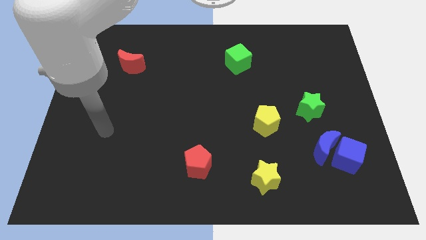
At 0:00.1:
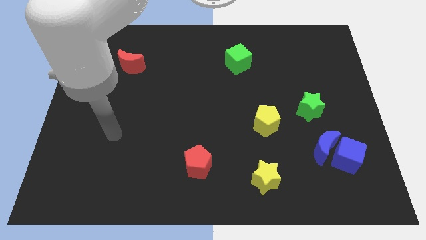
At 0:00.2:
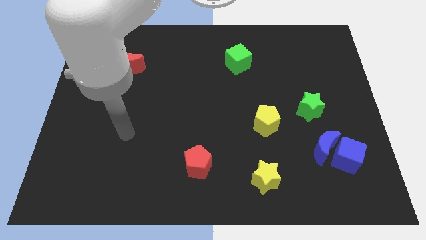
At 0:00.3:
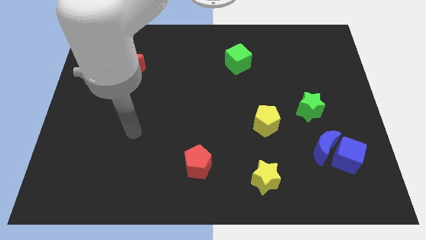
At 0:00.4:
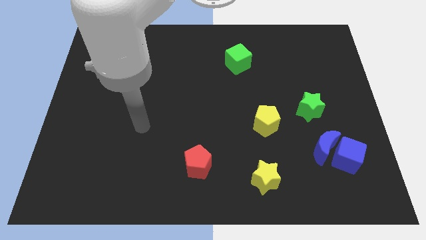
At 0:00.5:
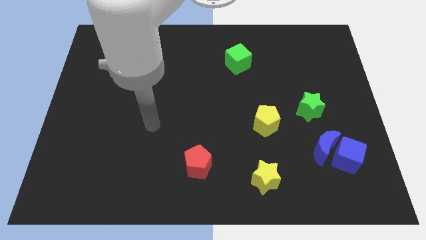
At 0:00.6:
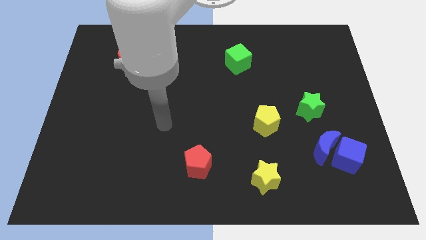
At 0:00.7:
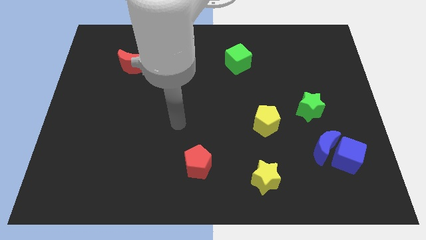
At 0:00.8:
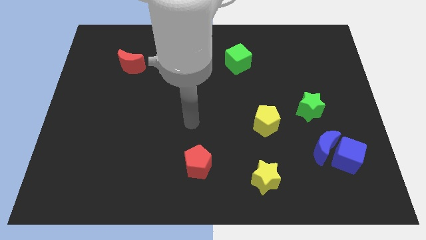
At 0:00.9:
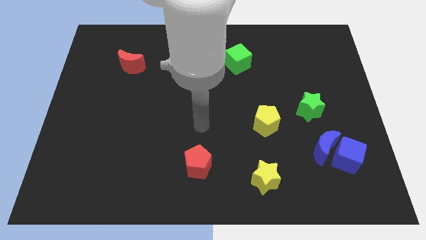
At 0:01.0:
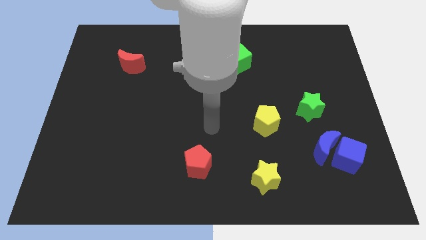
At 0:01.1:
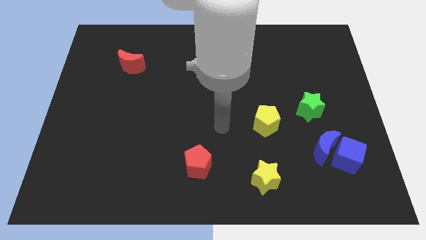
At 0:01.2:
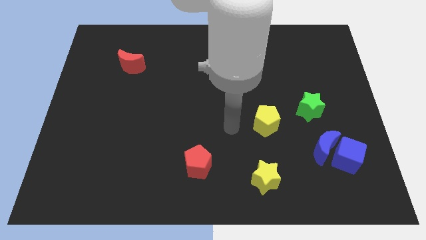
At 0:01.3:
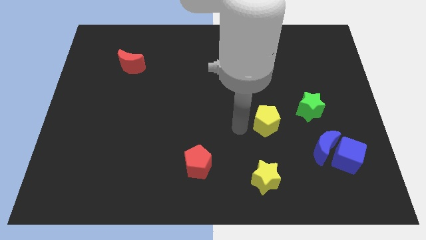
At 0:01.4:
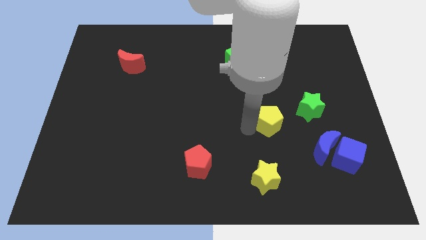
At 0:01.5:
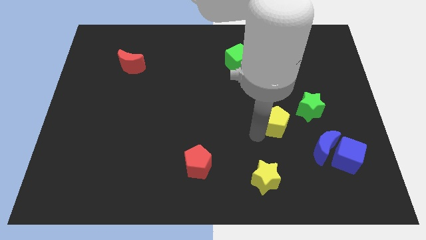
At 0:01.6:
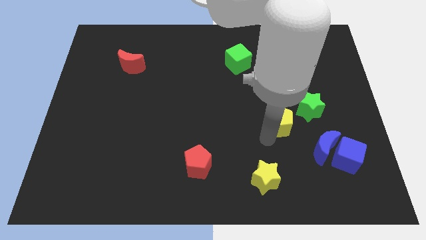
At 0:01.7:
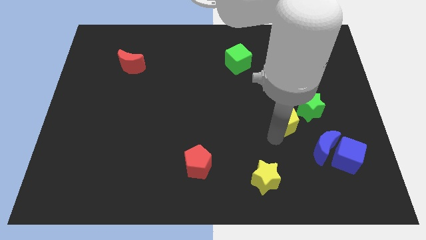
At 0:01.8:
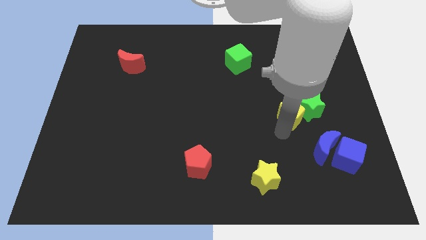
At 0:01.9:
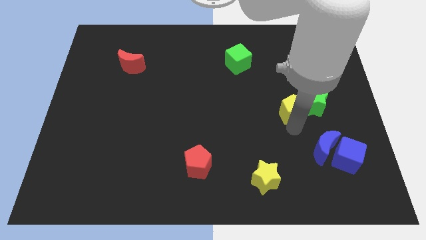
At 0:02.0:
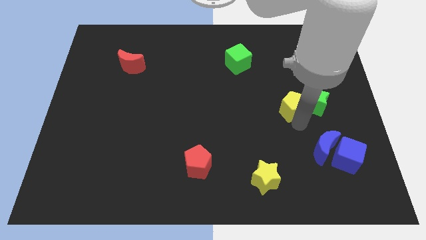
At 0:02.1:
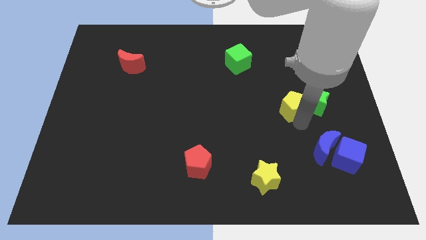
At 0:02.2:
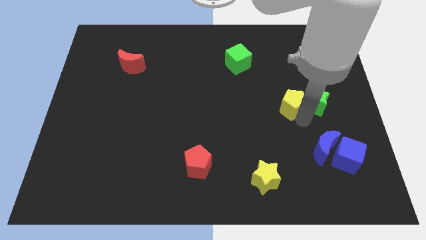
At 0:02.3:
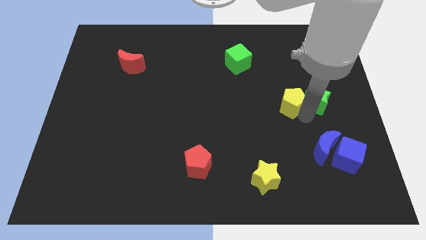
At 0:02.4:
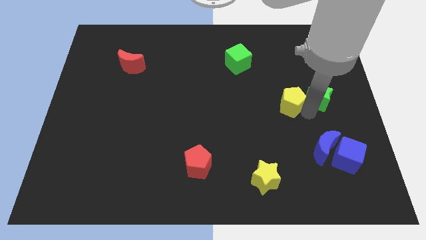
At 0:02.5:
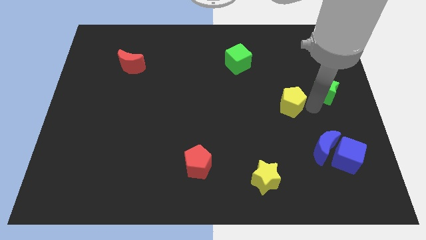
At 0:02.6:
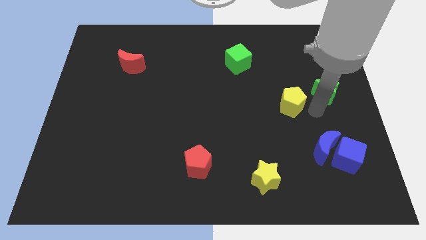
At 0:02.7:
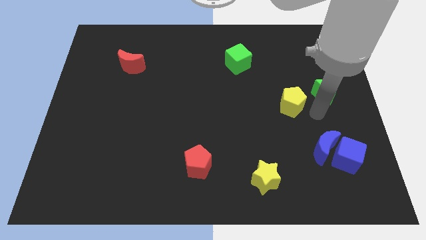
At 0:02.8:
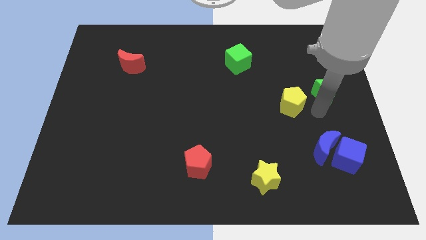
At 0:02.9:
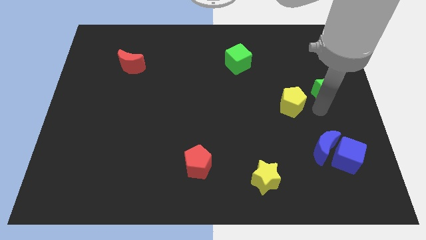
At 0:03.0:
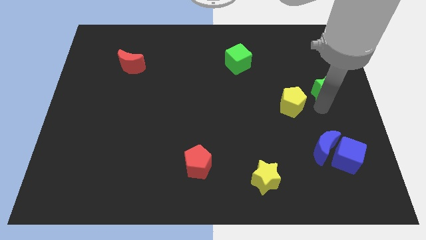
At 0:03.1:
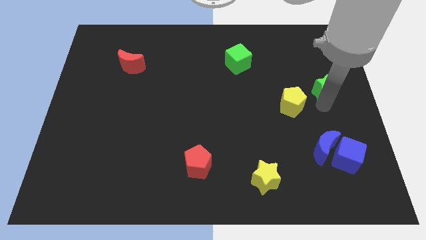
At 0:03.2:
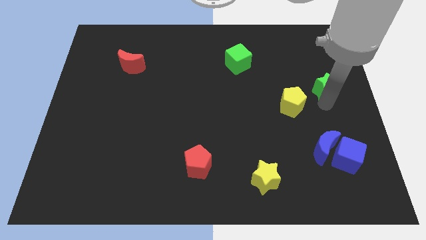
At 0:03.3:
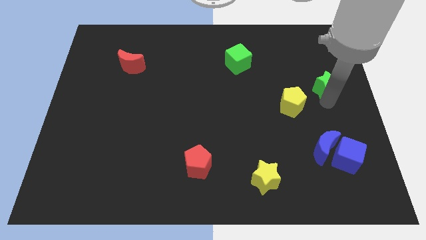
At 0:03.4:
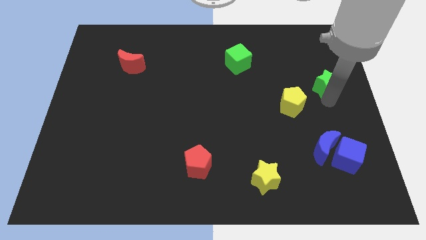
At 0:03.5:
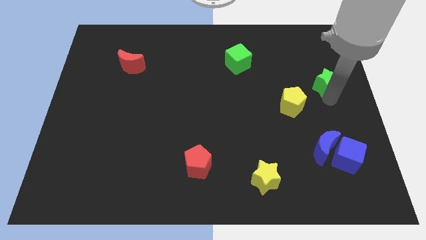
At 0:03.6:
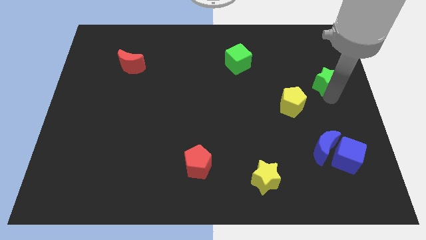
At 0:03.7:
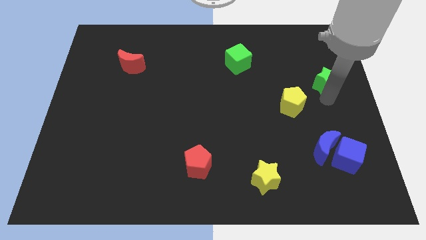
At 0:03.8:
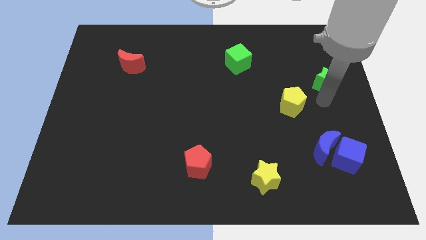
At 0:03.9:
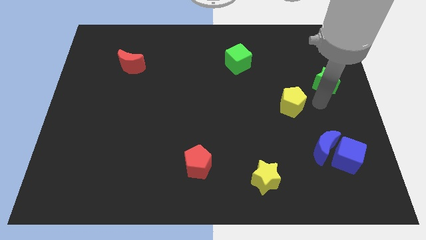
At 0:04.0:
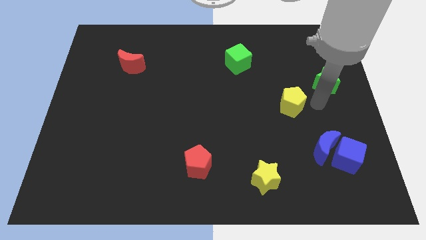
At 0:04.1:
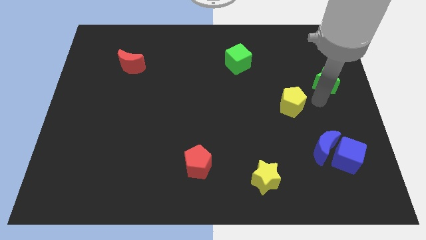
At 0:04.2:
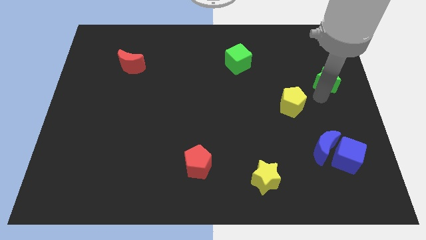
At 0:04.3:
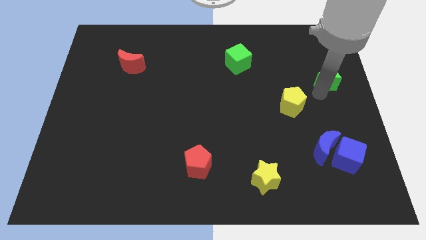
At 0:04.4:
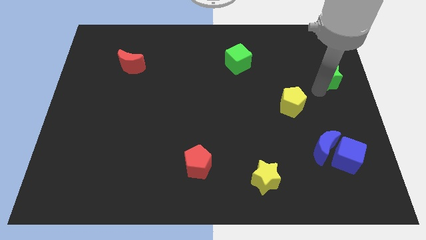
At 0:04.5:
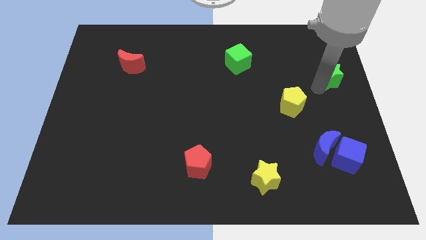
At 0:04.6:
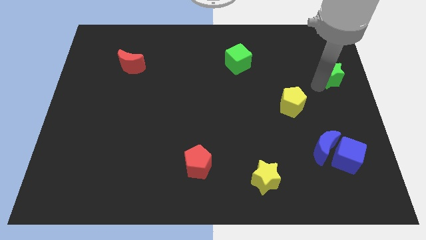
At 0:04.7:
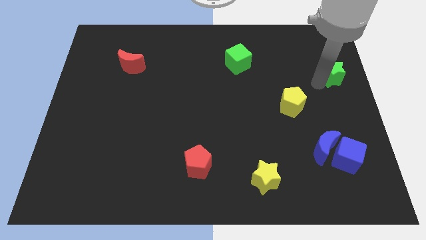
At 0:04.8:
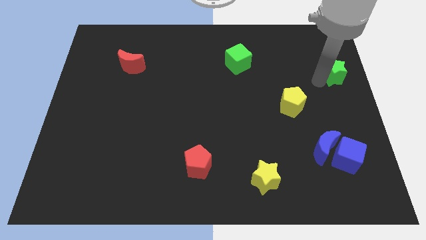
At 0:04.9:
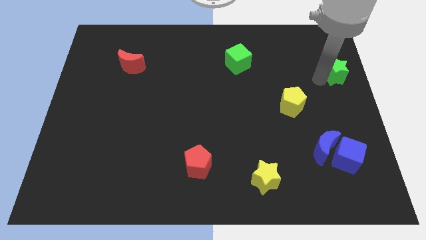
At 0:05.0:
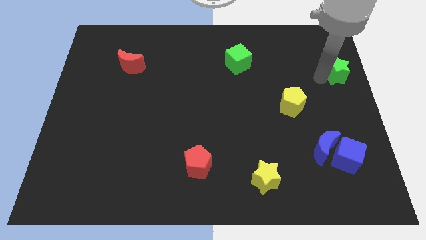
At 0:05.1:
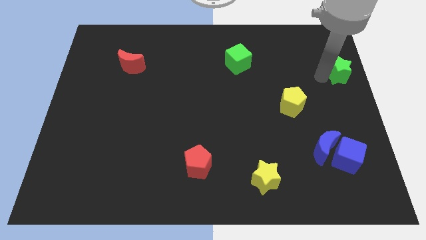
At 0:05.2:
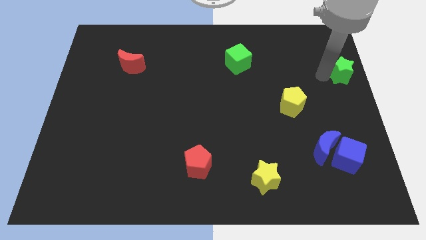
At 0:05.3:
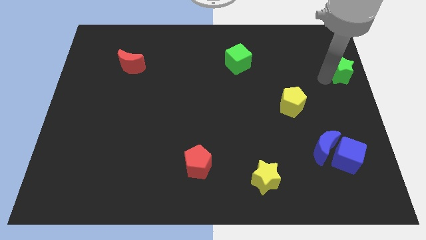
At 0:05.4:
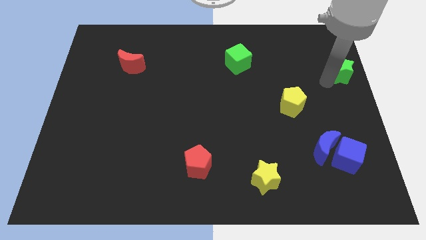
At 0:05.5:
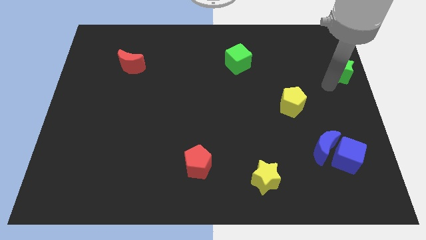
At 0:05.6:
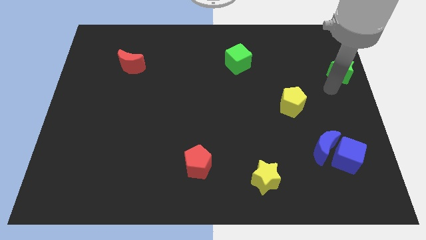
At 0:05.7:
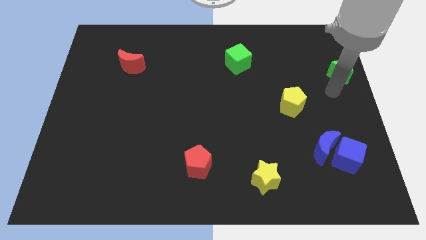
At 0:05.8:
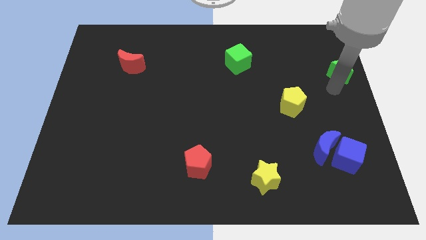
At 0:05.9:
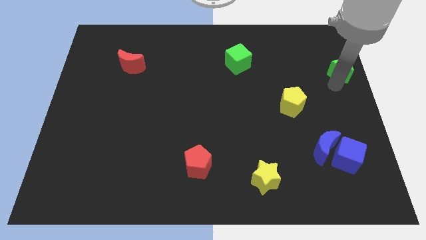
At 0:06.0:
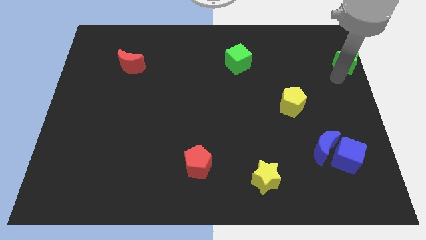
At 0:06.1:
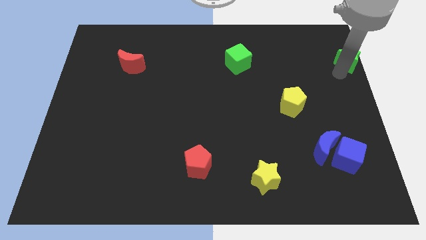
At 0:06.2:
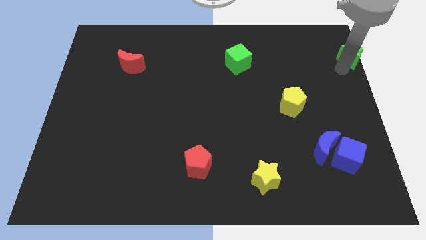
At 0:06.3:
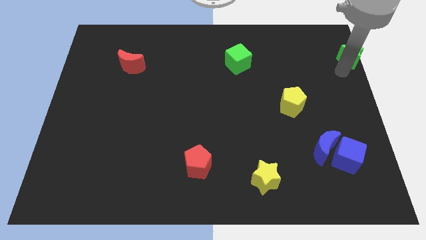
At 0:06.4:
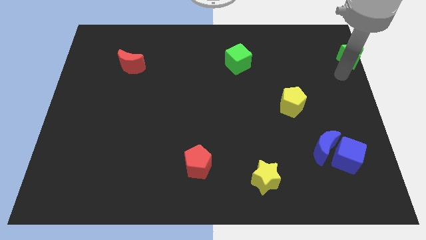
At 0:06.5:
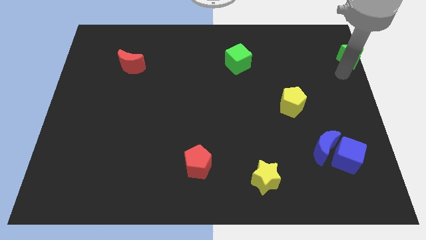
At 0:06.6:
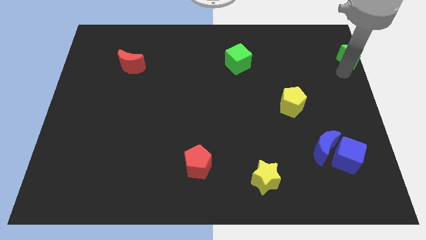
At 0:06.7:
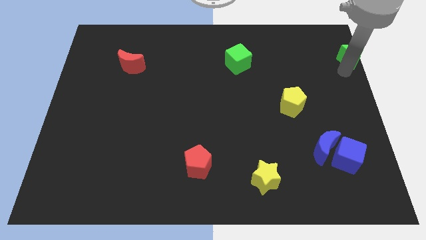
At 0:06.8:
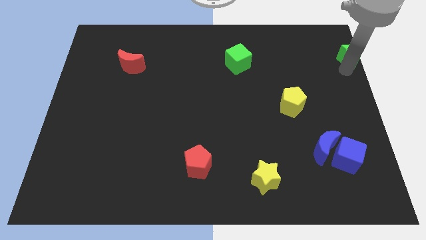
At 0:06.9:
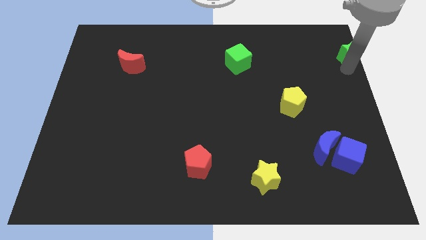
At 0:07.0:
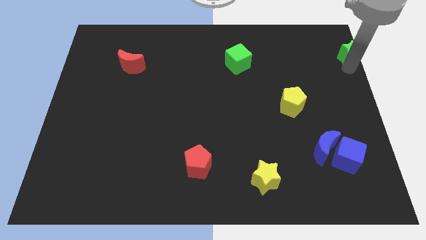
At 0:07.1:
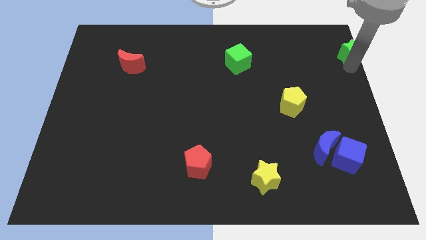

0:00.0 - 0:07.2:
push the green star to the upper right corner

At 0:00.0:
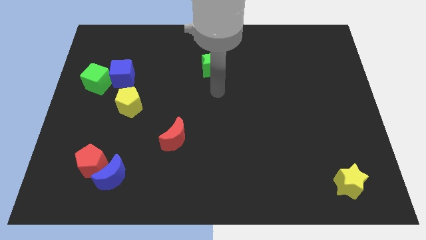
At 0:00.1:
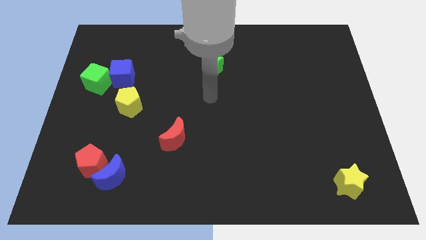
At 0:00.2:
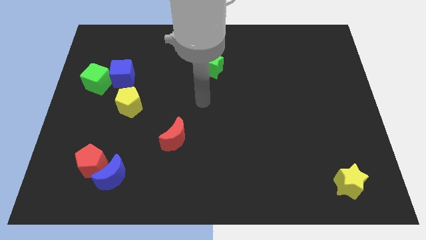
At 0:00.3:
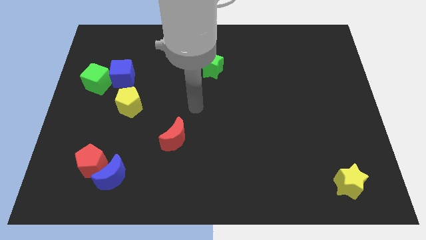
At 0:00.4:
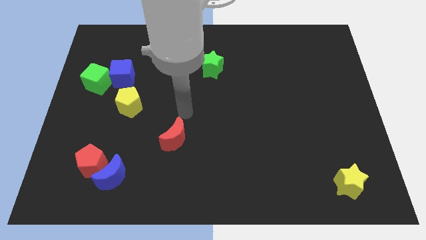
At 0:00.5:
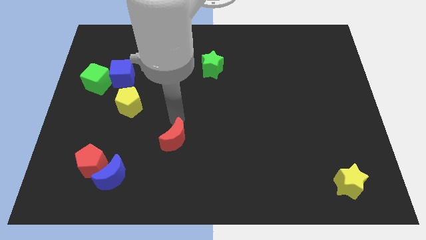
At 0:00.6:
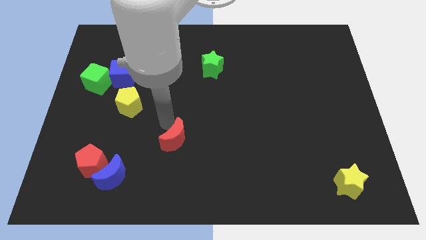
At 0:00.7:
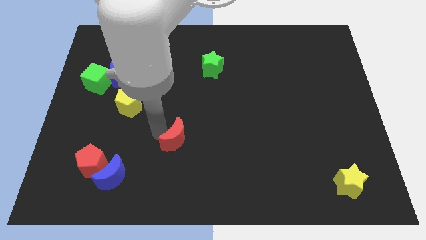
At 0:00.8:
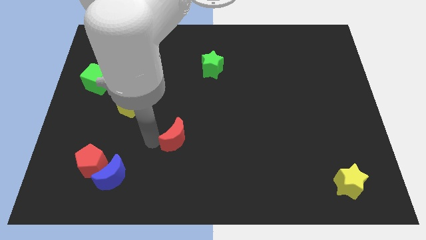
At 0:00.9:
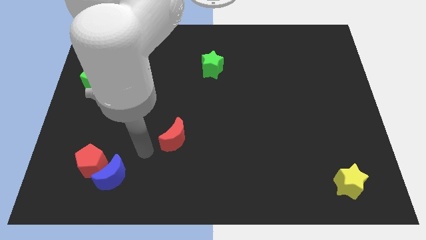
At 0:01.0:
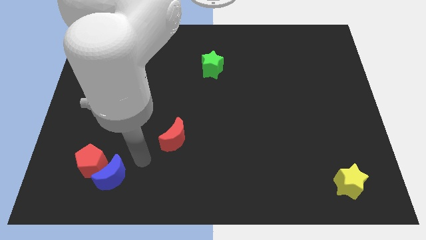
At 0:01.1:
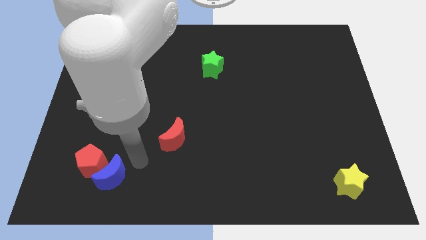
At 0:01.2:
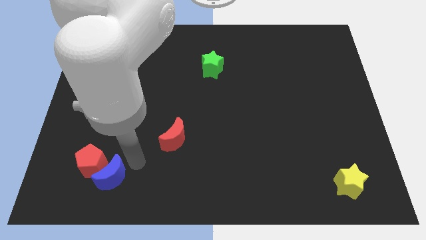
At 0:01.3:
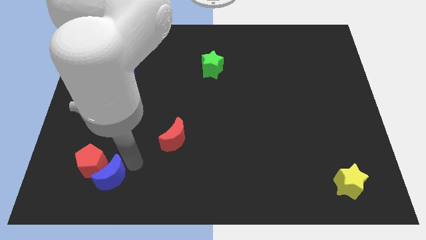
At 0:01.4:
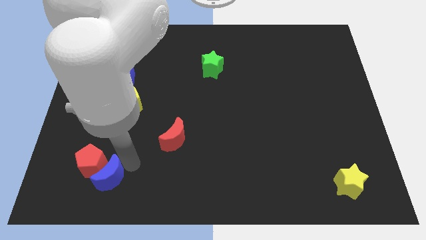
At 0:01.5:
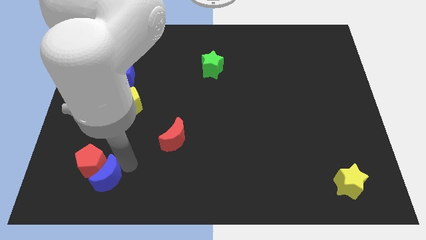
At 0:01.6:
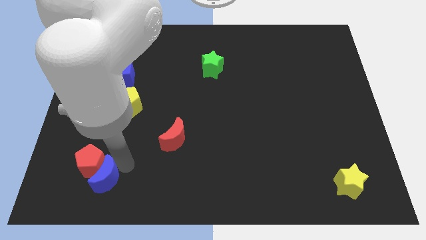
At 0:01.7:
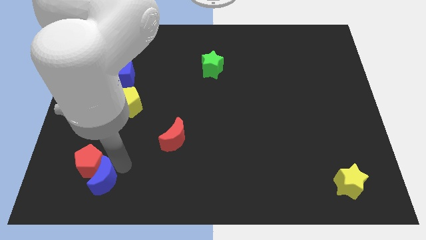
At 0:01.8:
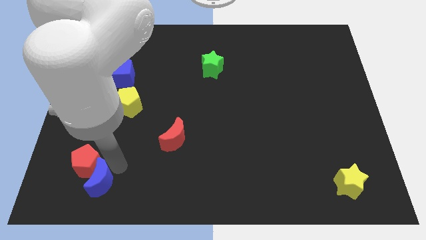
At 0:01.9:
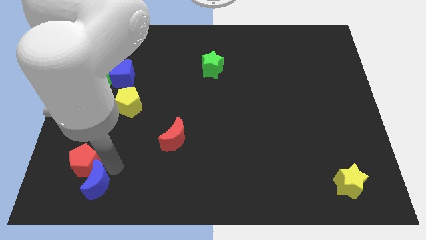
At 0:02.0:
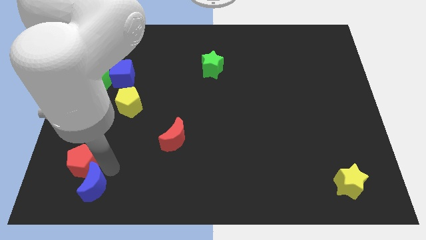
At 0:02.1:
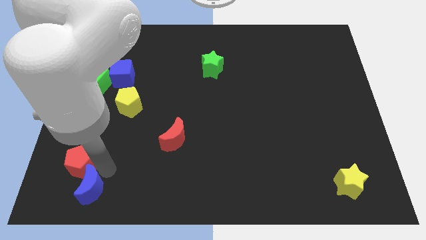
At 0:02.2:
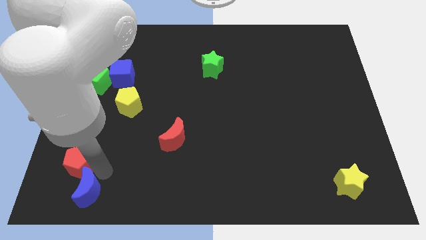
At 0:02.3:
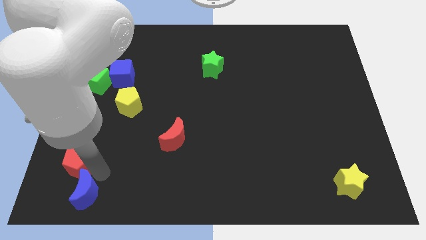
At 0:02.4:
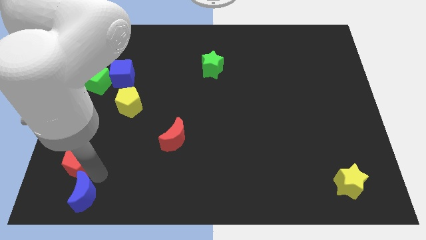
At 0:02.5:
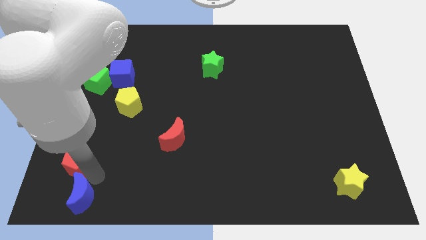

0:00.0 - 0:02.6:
put the blue moon to the bottom left corner
